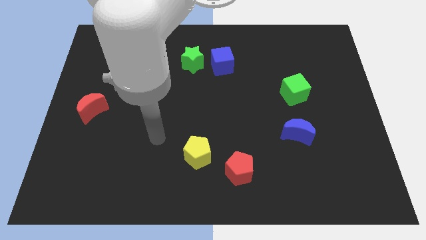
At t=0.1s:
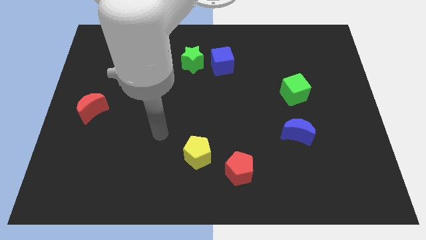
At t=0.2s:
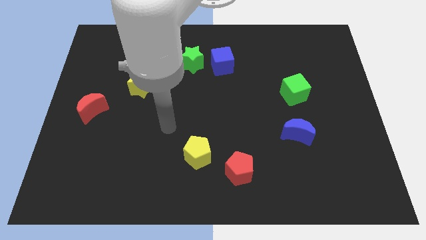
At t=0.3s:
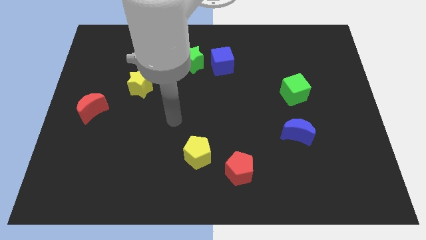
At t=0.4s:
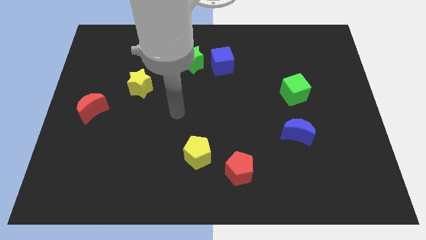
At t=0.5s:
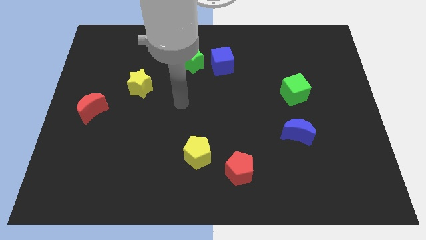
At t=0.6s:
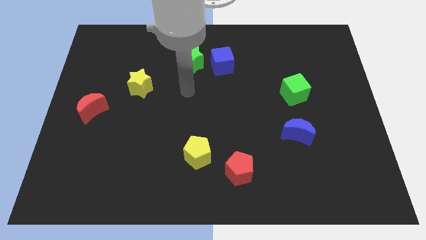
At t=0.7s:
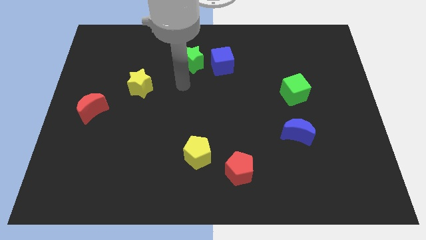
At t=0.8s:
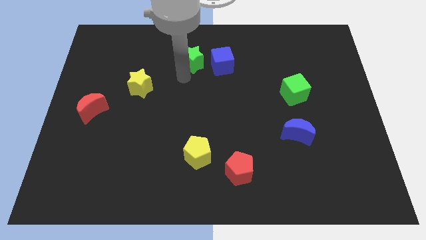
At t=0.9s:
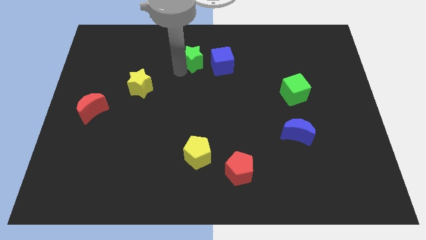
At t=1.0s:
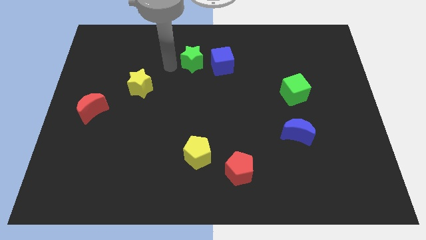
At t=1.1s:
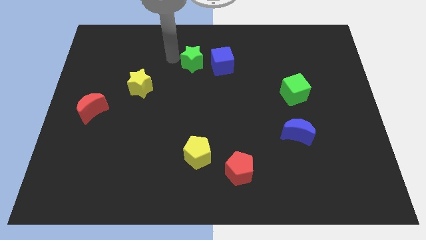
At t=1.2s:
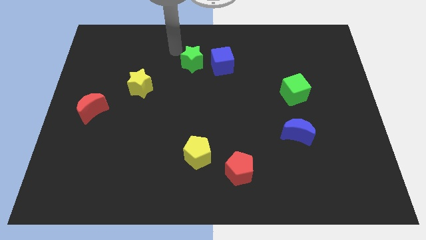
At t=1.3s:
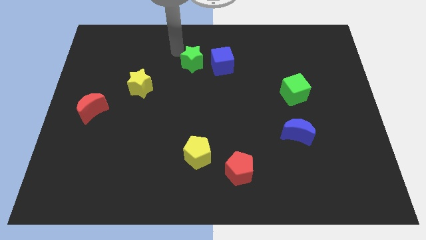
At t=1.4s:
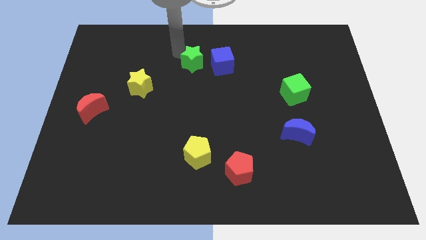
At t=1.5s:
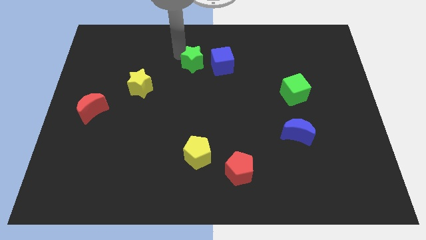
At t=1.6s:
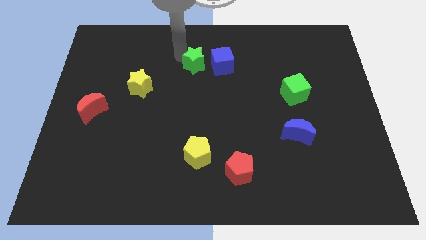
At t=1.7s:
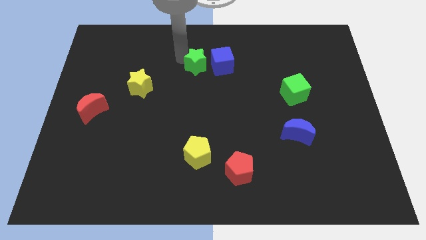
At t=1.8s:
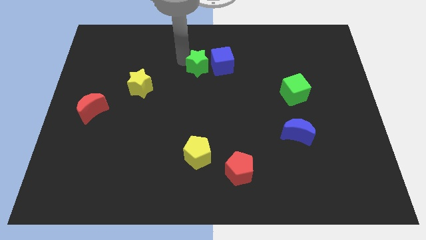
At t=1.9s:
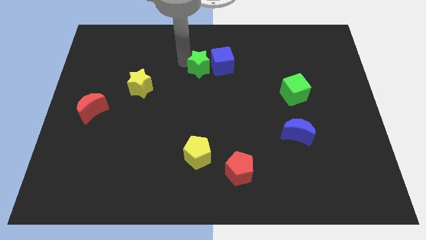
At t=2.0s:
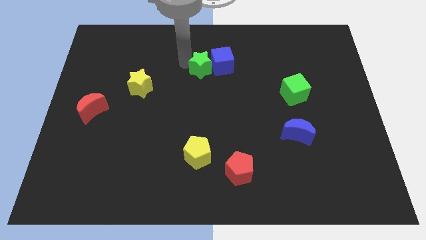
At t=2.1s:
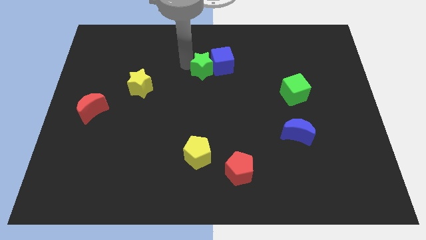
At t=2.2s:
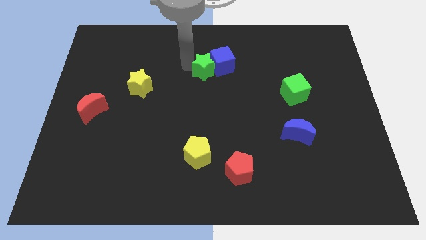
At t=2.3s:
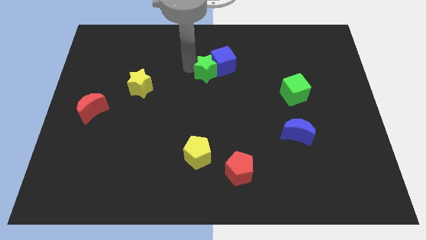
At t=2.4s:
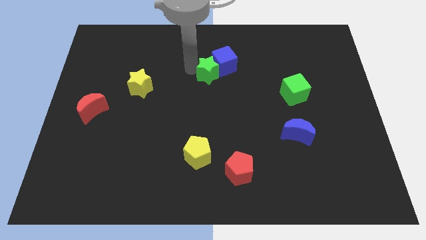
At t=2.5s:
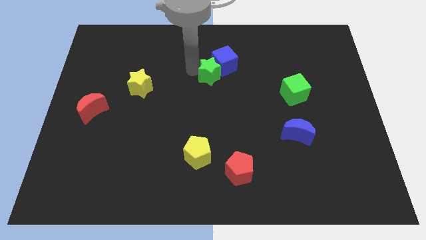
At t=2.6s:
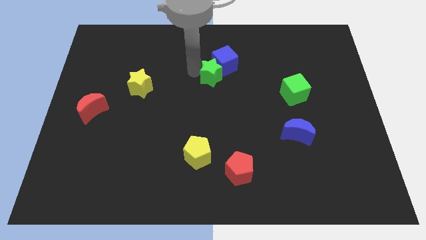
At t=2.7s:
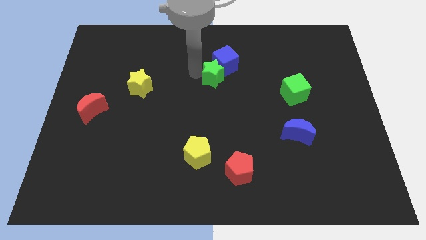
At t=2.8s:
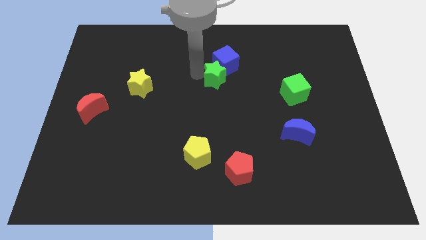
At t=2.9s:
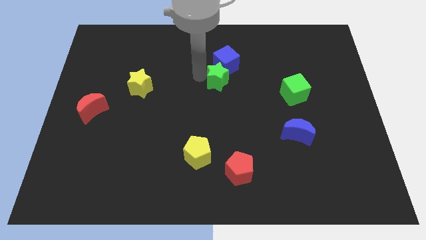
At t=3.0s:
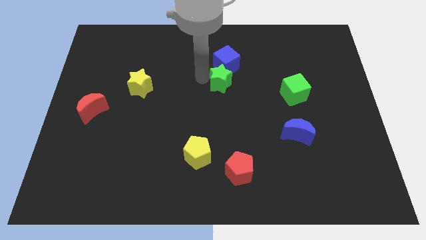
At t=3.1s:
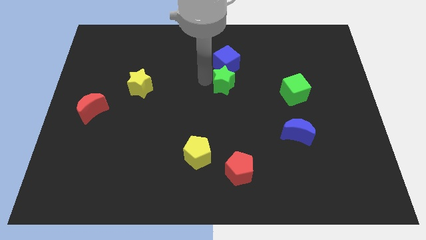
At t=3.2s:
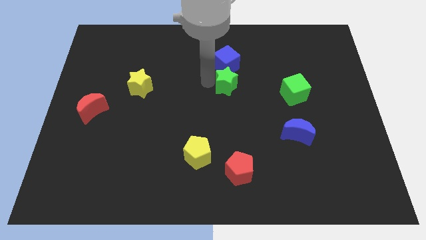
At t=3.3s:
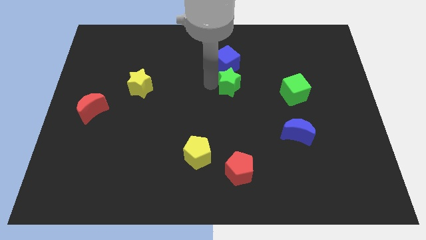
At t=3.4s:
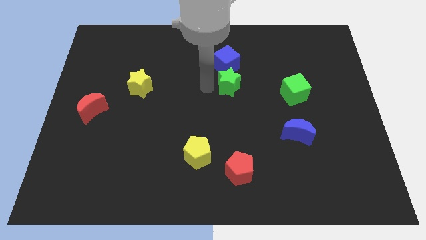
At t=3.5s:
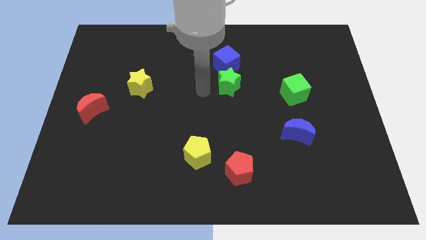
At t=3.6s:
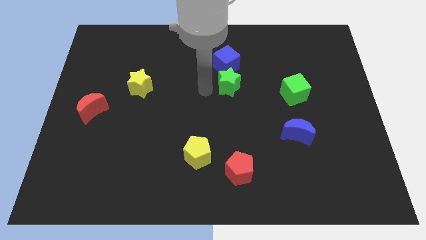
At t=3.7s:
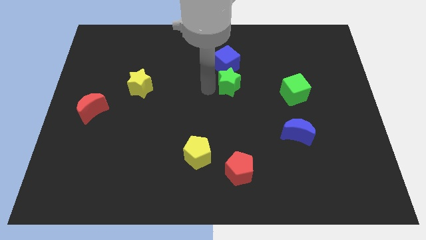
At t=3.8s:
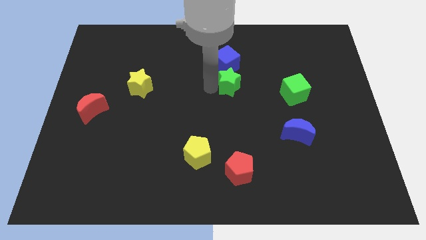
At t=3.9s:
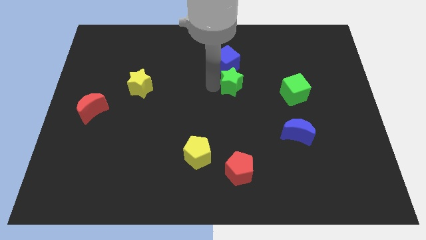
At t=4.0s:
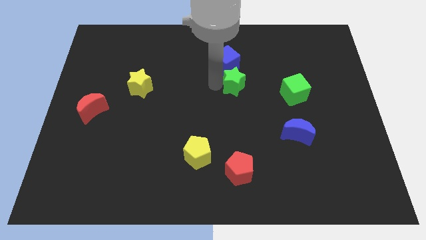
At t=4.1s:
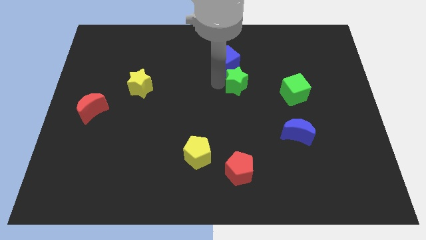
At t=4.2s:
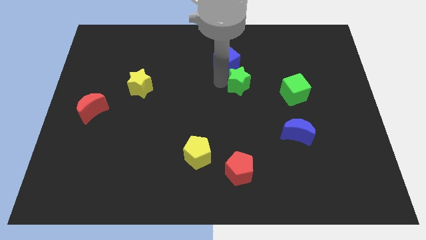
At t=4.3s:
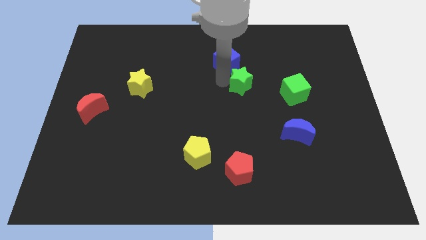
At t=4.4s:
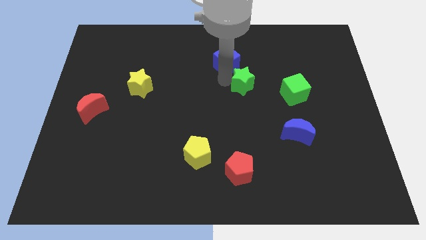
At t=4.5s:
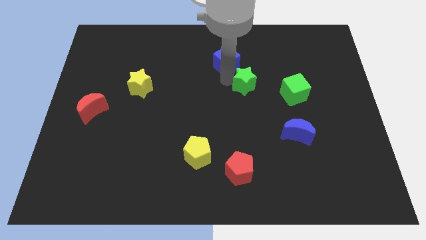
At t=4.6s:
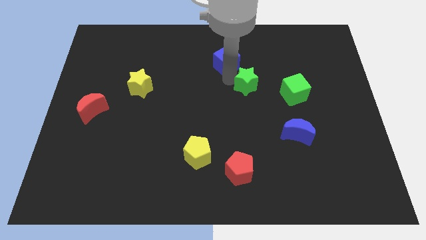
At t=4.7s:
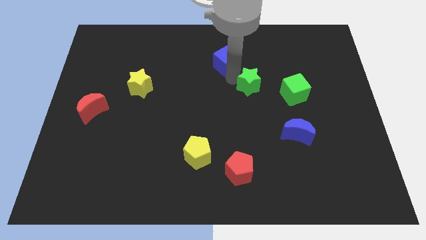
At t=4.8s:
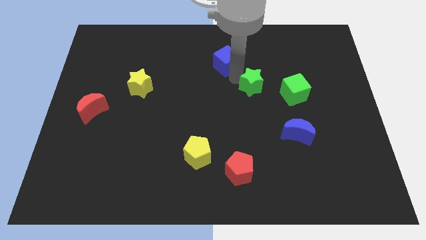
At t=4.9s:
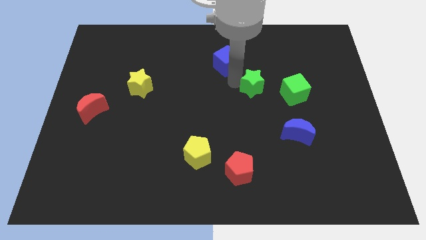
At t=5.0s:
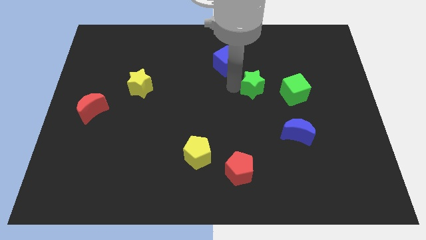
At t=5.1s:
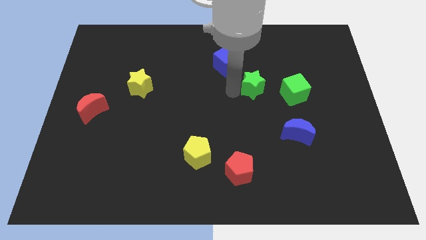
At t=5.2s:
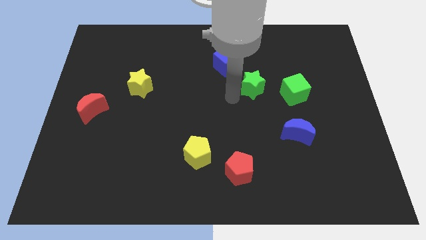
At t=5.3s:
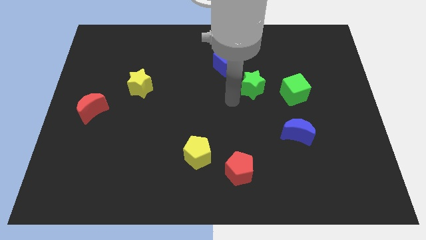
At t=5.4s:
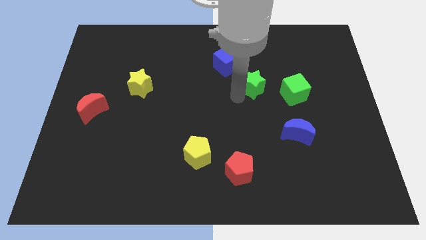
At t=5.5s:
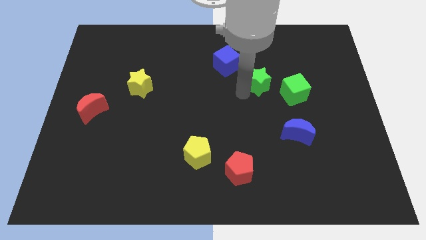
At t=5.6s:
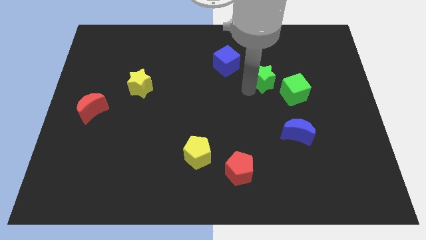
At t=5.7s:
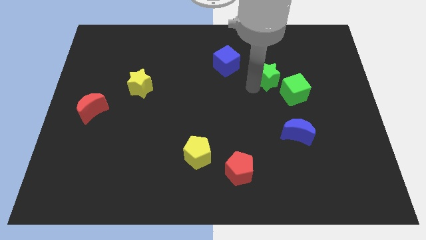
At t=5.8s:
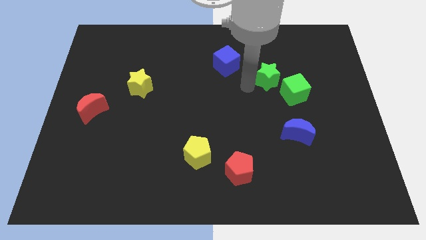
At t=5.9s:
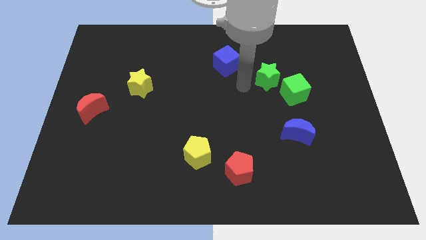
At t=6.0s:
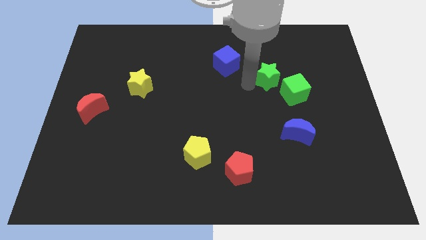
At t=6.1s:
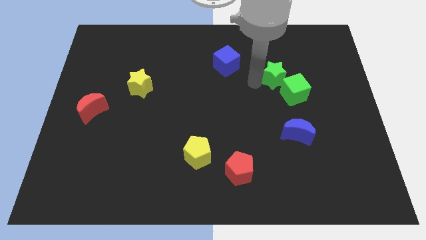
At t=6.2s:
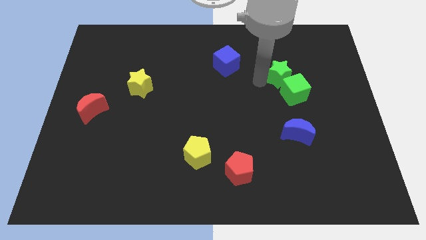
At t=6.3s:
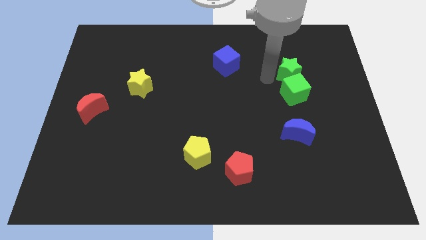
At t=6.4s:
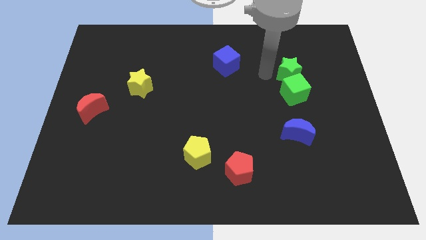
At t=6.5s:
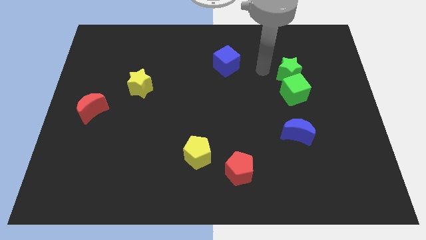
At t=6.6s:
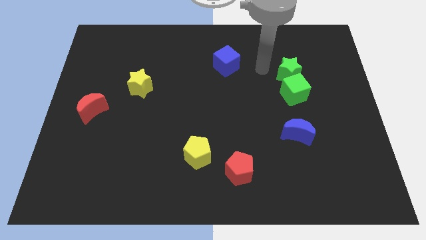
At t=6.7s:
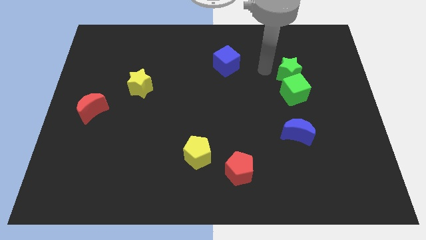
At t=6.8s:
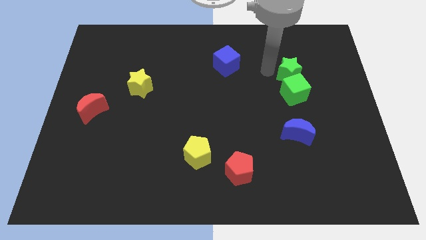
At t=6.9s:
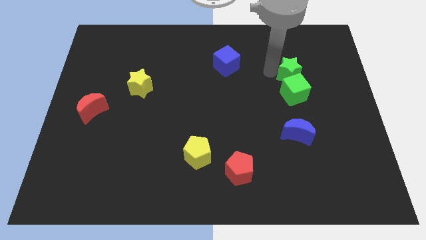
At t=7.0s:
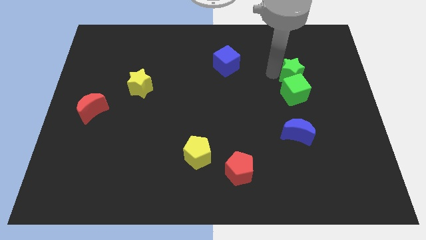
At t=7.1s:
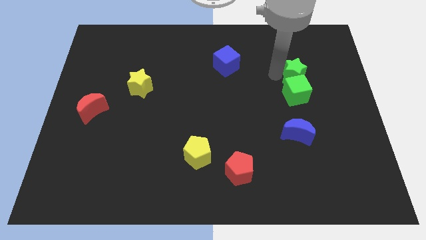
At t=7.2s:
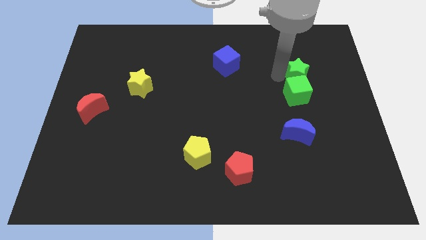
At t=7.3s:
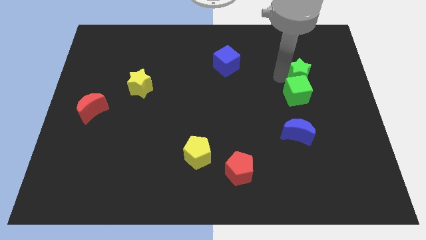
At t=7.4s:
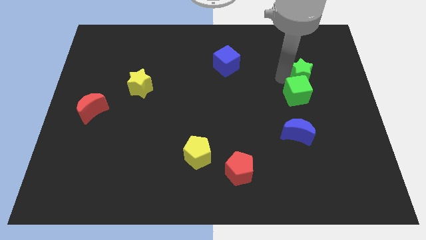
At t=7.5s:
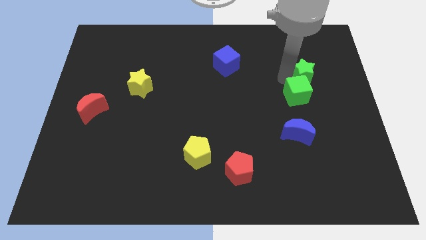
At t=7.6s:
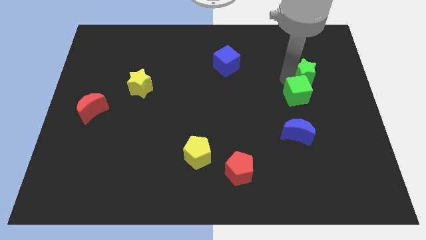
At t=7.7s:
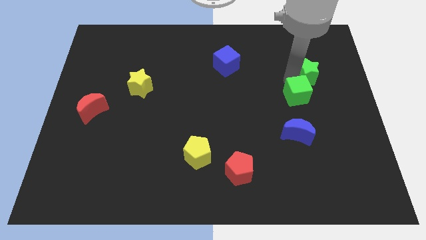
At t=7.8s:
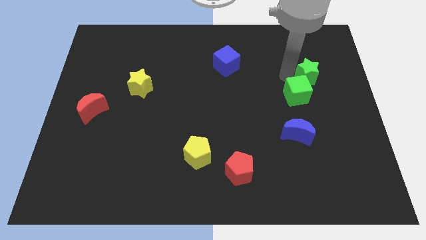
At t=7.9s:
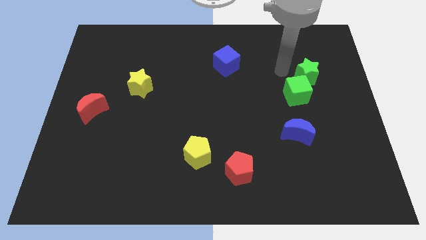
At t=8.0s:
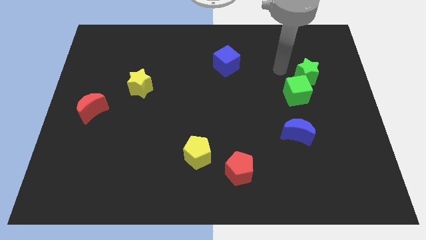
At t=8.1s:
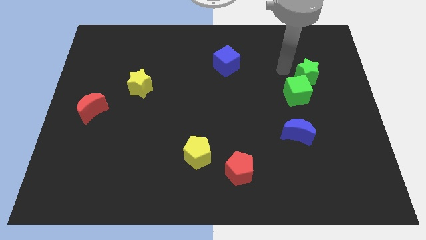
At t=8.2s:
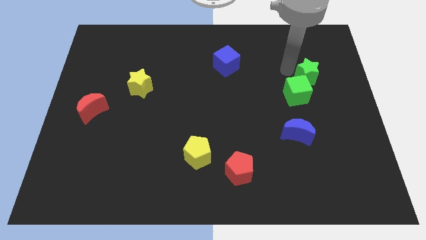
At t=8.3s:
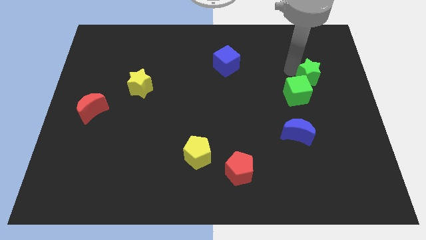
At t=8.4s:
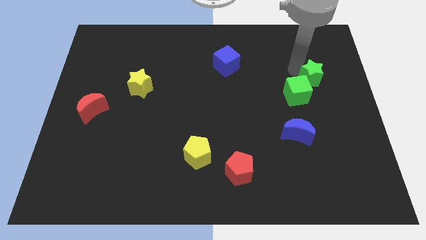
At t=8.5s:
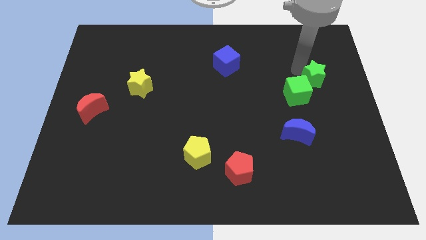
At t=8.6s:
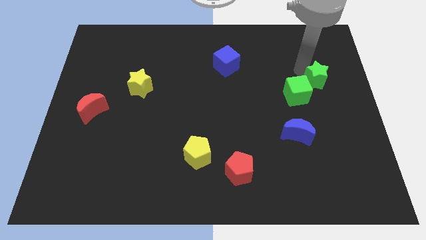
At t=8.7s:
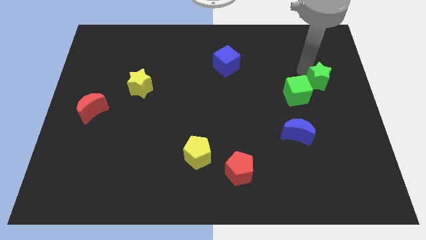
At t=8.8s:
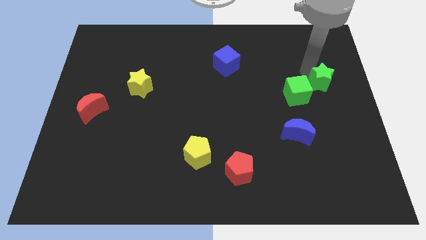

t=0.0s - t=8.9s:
put the green star to the right side
